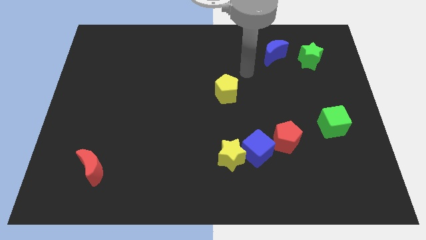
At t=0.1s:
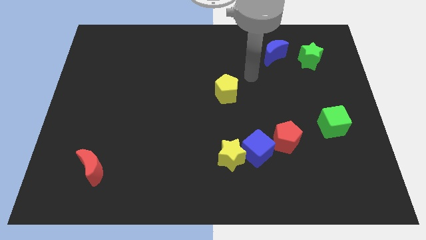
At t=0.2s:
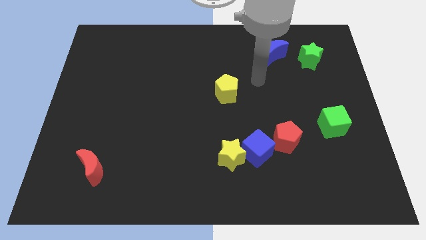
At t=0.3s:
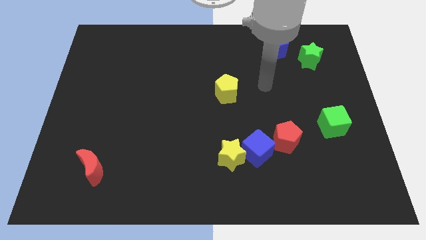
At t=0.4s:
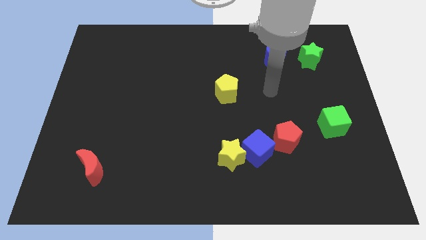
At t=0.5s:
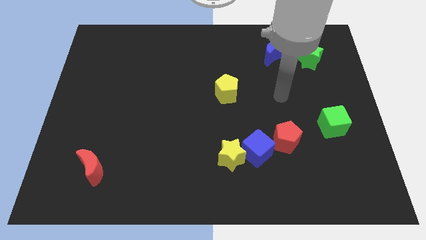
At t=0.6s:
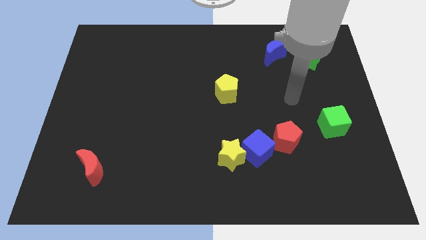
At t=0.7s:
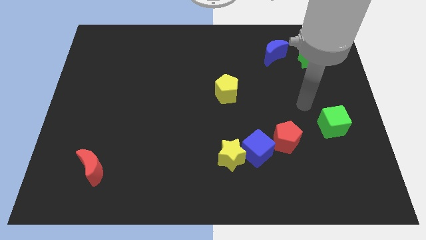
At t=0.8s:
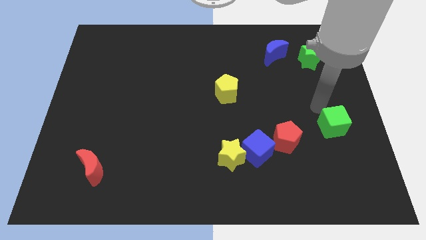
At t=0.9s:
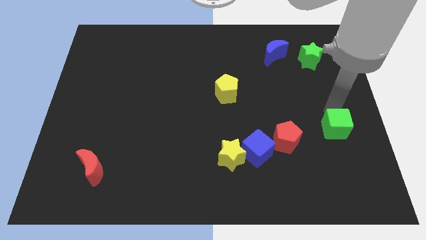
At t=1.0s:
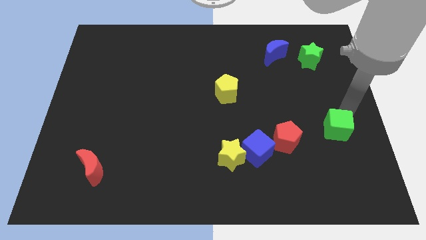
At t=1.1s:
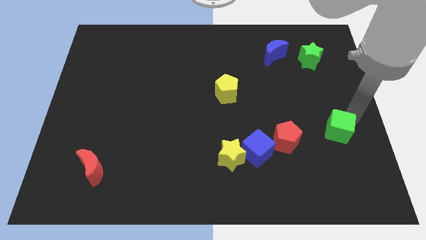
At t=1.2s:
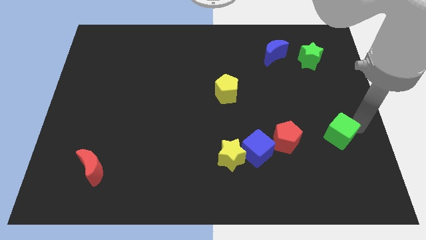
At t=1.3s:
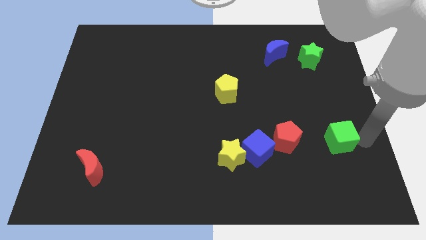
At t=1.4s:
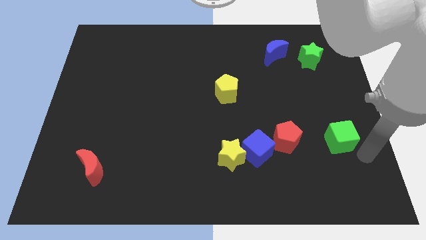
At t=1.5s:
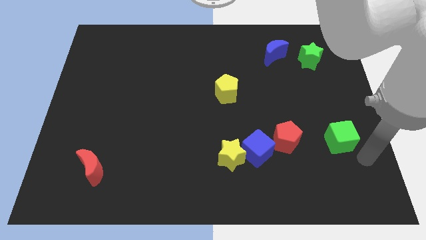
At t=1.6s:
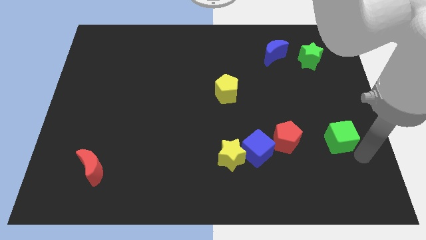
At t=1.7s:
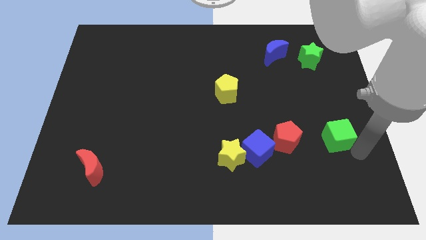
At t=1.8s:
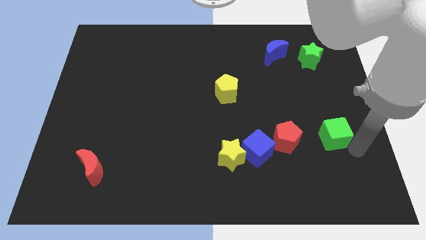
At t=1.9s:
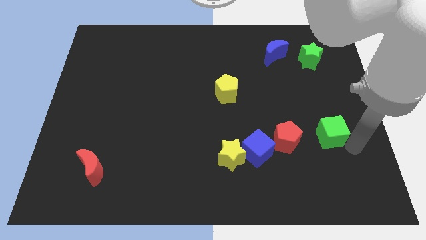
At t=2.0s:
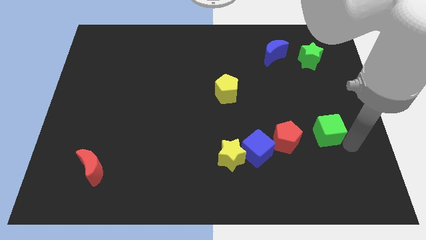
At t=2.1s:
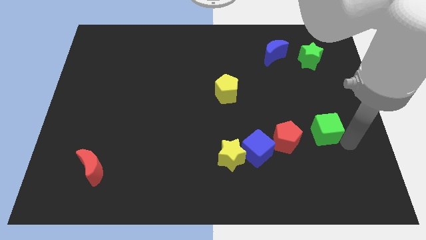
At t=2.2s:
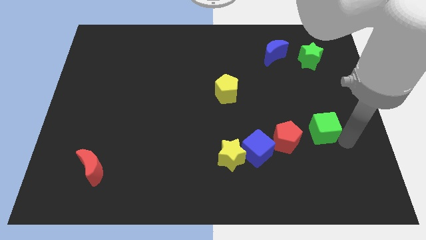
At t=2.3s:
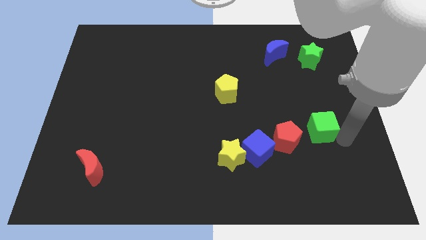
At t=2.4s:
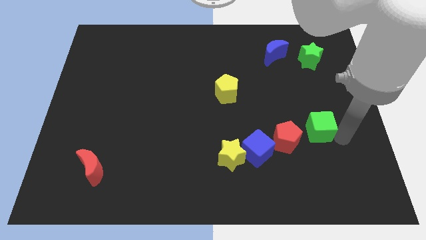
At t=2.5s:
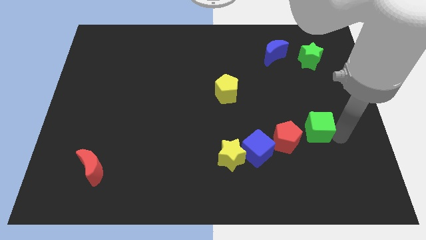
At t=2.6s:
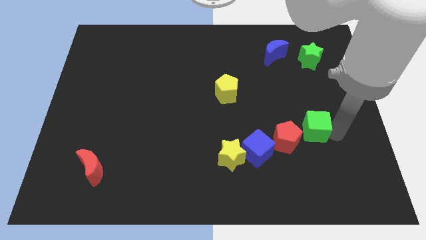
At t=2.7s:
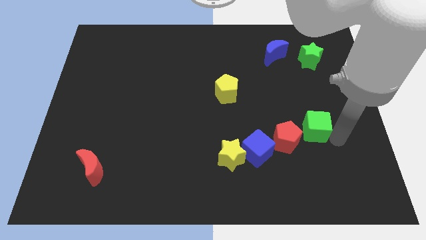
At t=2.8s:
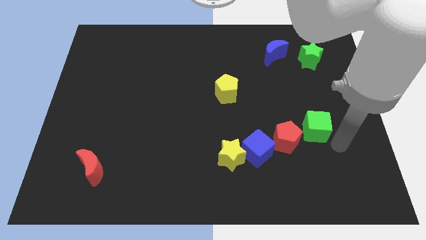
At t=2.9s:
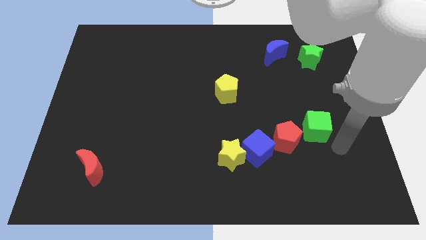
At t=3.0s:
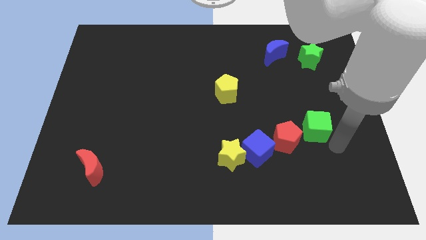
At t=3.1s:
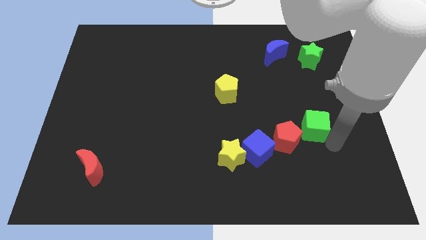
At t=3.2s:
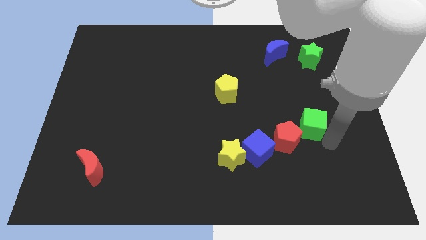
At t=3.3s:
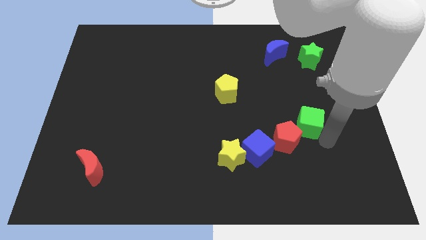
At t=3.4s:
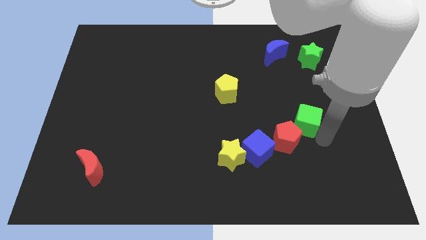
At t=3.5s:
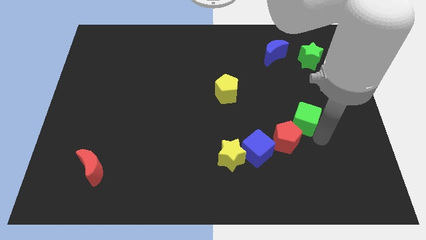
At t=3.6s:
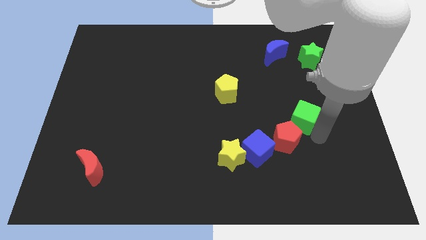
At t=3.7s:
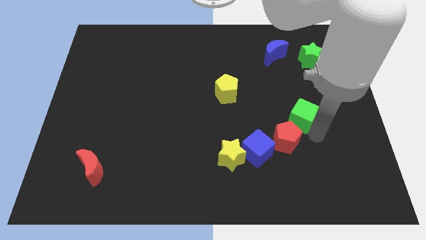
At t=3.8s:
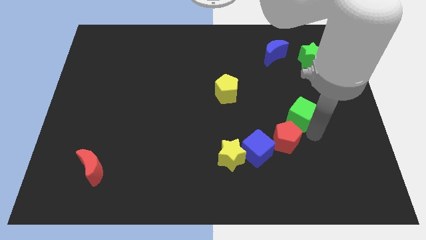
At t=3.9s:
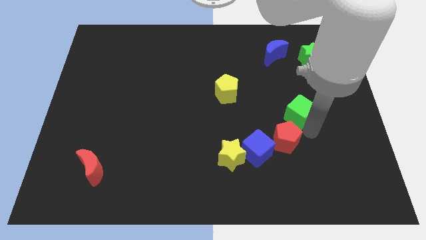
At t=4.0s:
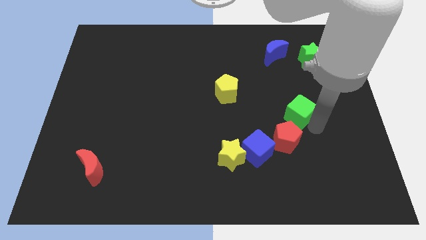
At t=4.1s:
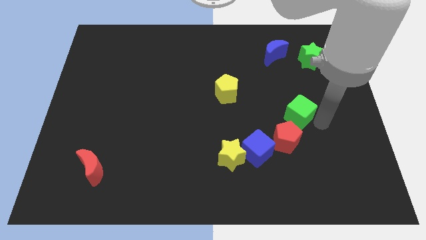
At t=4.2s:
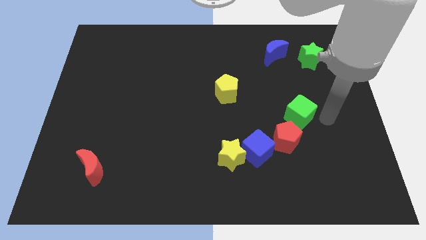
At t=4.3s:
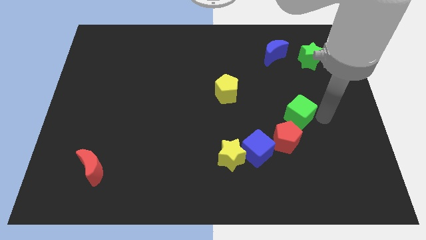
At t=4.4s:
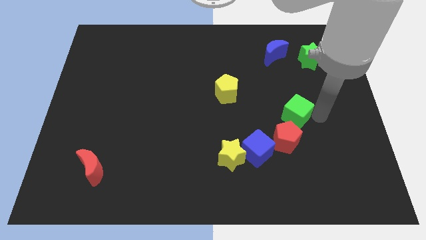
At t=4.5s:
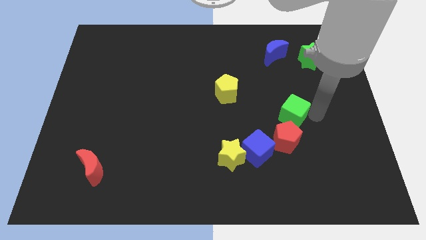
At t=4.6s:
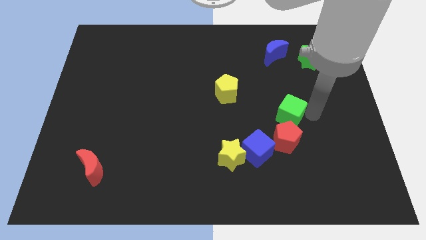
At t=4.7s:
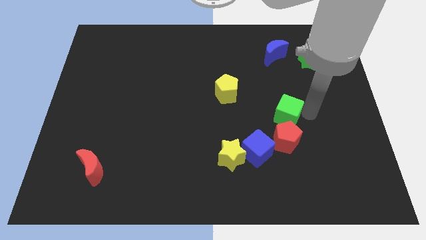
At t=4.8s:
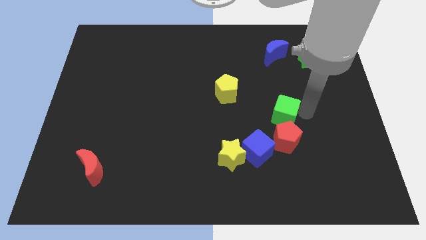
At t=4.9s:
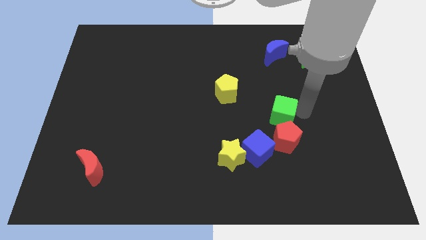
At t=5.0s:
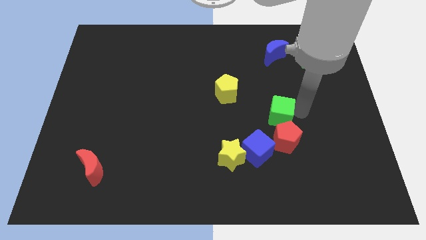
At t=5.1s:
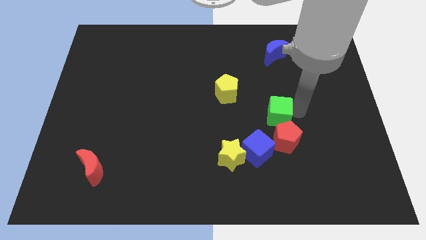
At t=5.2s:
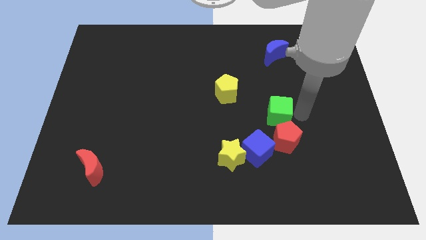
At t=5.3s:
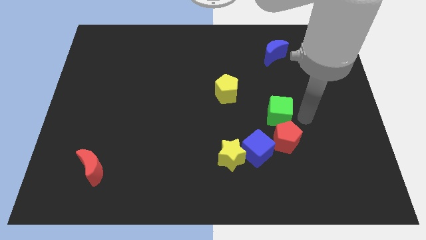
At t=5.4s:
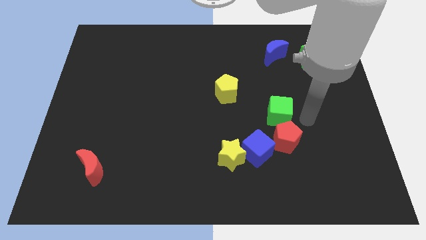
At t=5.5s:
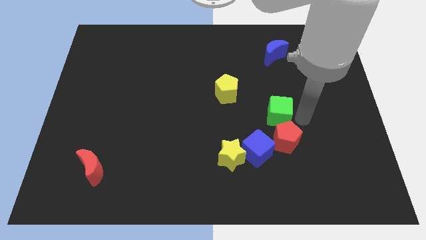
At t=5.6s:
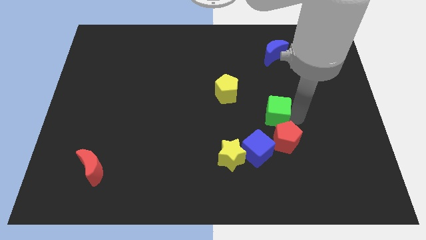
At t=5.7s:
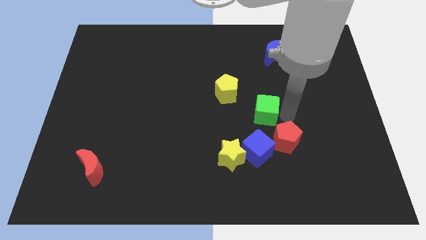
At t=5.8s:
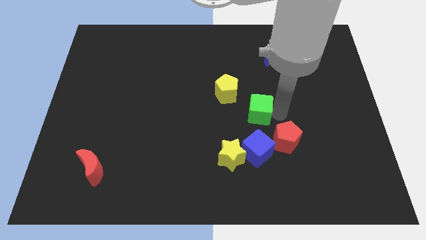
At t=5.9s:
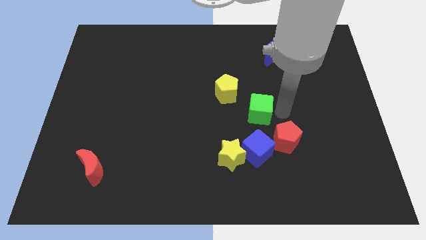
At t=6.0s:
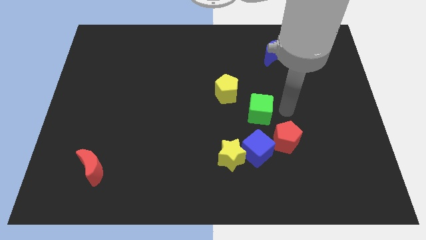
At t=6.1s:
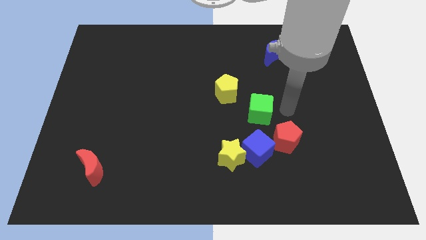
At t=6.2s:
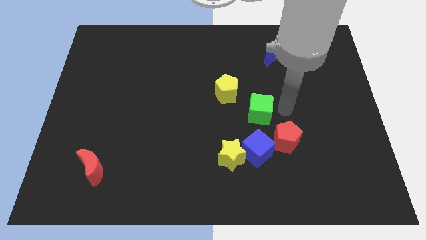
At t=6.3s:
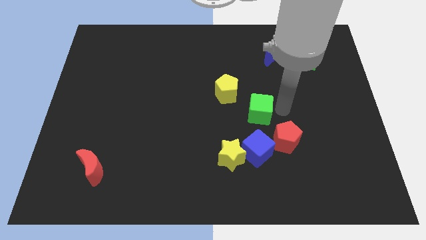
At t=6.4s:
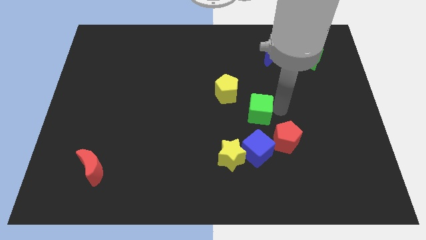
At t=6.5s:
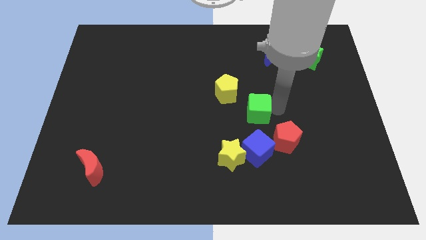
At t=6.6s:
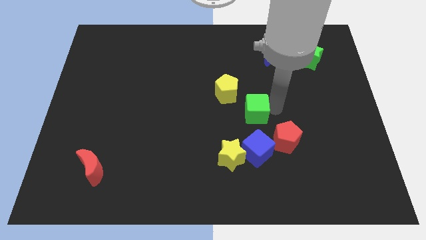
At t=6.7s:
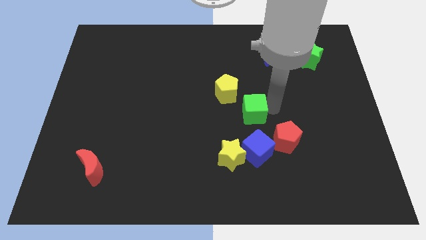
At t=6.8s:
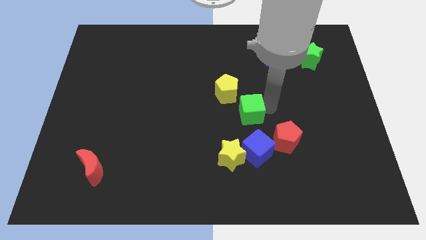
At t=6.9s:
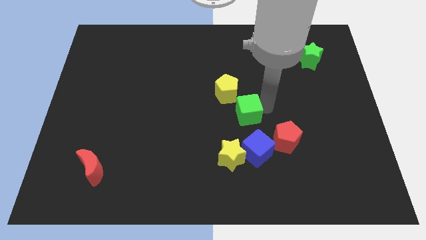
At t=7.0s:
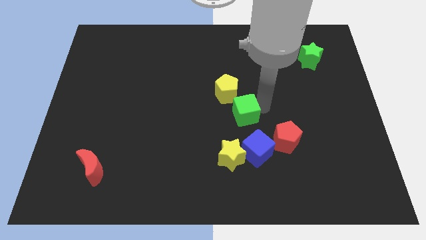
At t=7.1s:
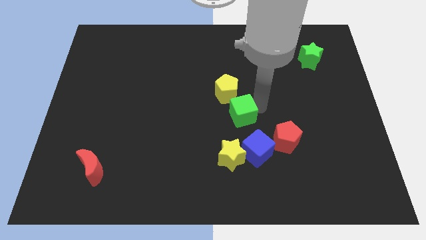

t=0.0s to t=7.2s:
move the green cube to the left

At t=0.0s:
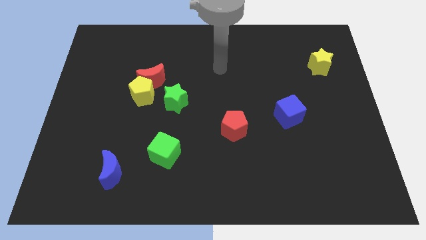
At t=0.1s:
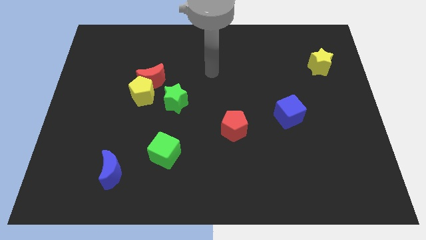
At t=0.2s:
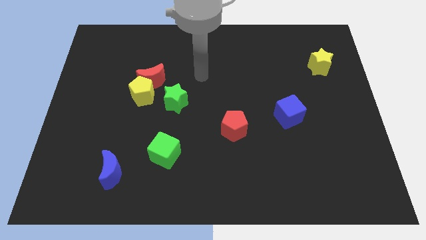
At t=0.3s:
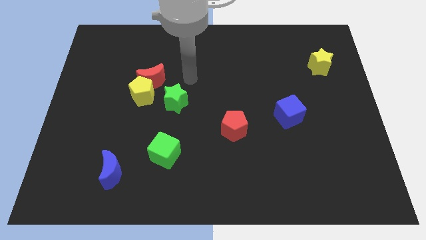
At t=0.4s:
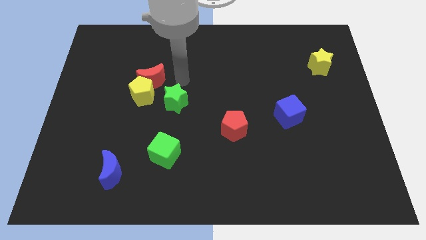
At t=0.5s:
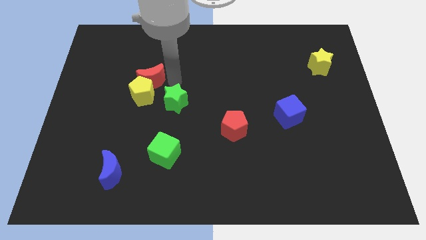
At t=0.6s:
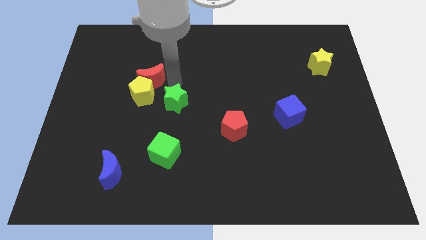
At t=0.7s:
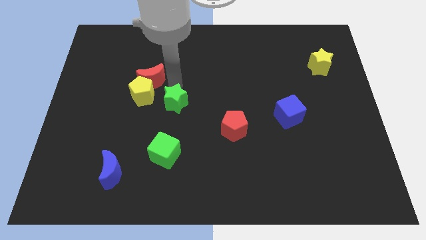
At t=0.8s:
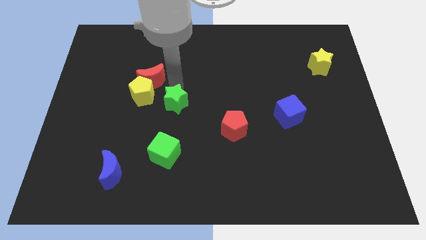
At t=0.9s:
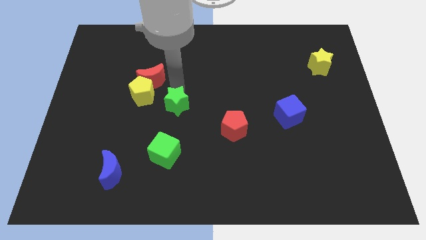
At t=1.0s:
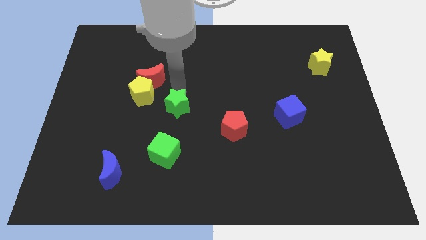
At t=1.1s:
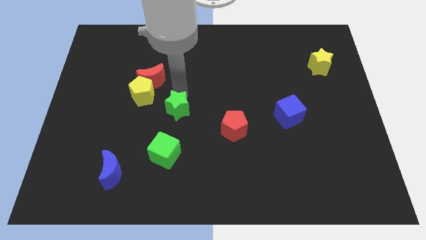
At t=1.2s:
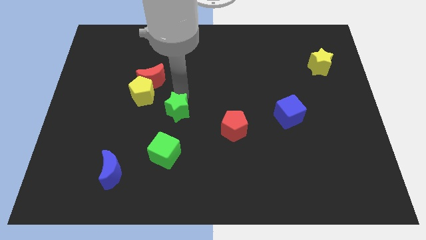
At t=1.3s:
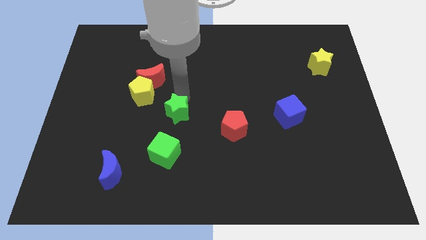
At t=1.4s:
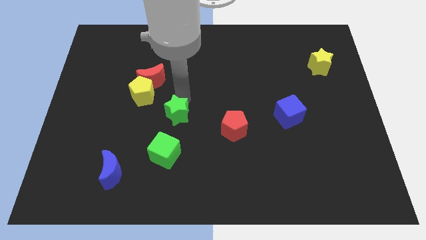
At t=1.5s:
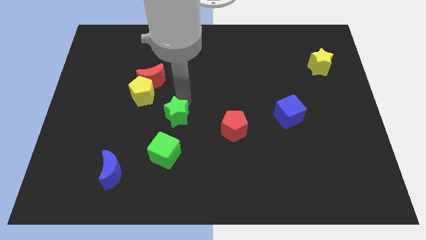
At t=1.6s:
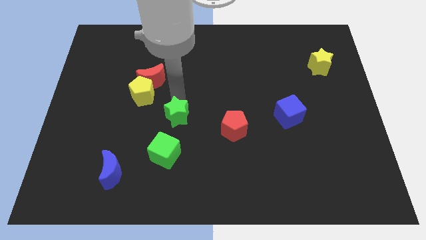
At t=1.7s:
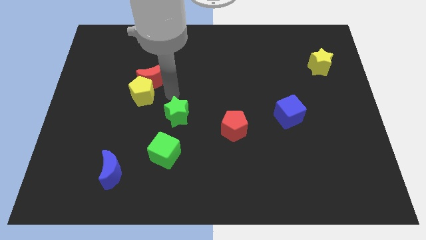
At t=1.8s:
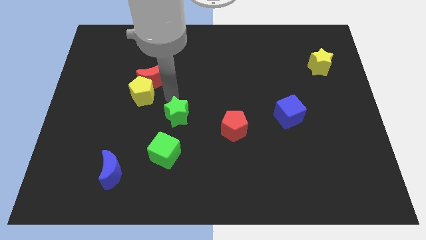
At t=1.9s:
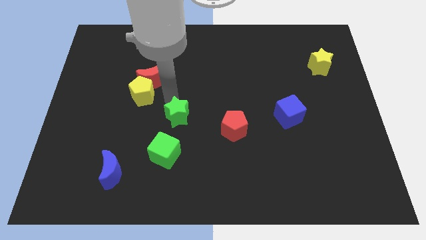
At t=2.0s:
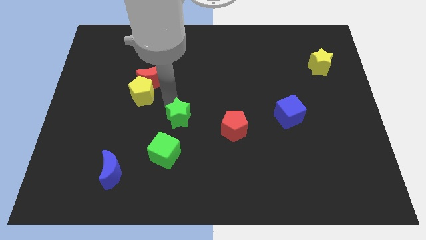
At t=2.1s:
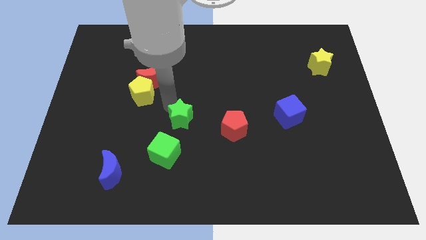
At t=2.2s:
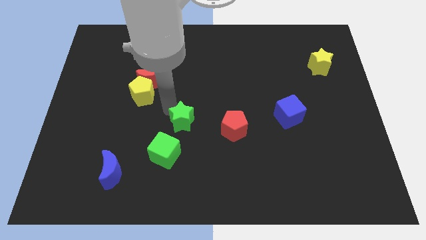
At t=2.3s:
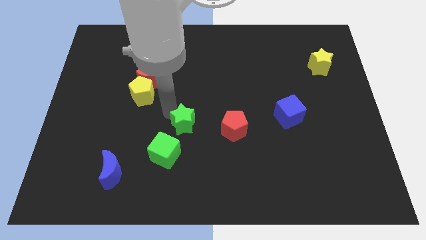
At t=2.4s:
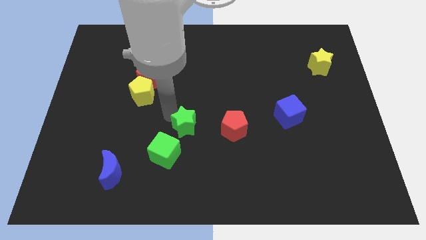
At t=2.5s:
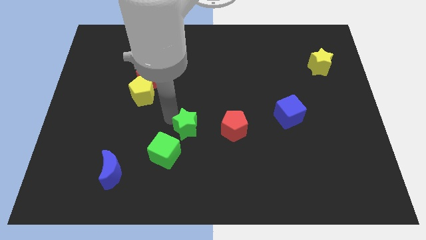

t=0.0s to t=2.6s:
slightly move the green star down
